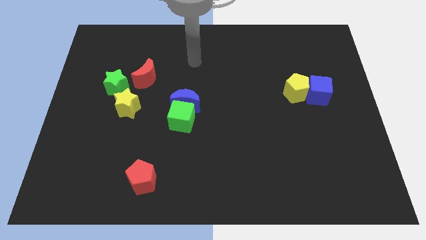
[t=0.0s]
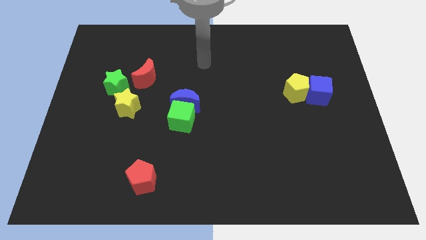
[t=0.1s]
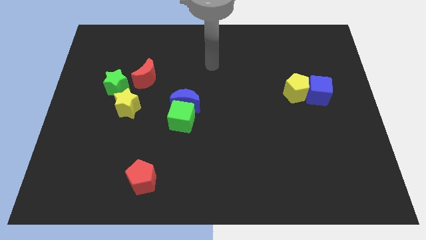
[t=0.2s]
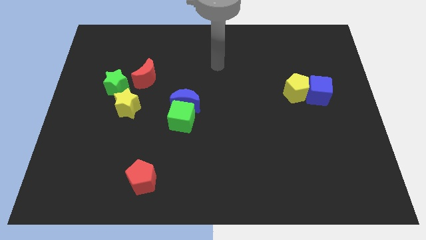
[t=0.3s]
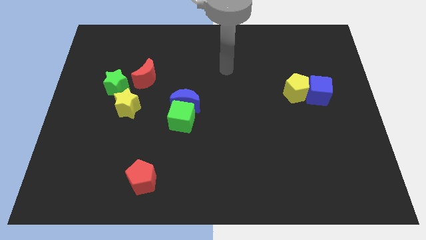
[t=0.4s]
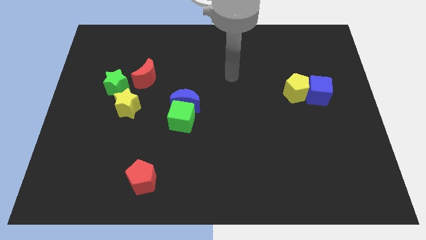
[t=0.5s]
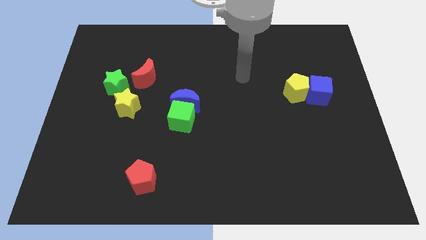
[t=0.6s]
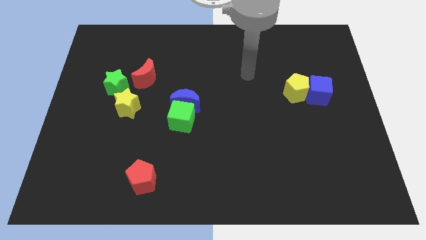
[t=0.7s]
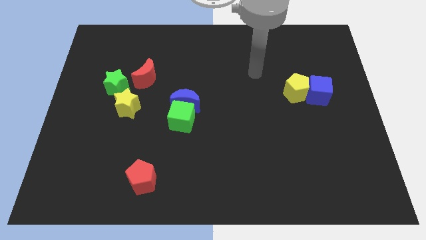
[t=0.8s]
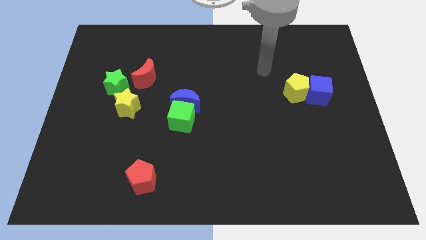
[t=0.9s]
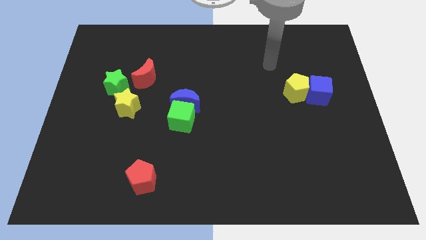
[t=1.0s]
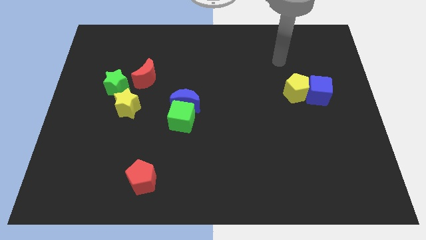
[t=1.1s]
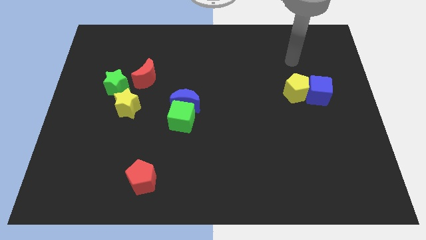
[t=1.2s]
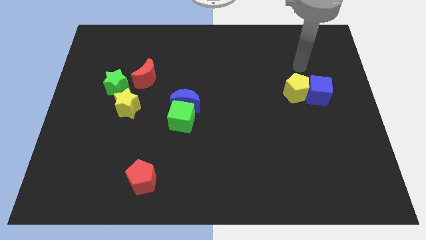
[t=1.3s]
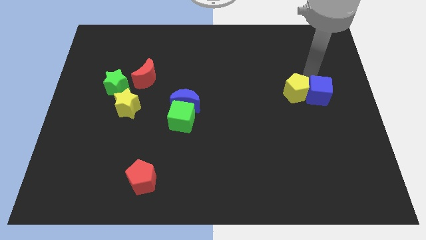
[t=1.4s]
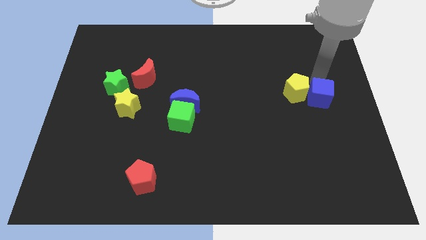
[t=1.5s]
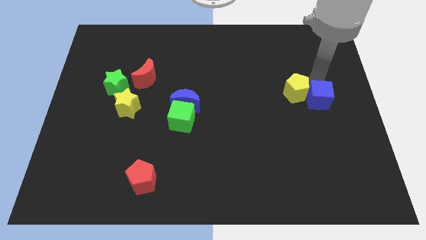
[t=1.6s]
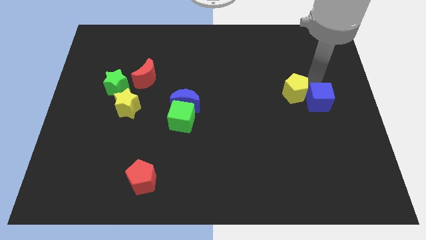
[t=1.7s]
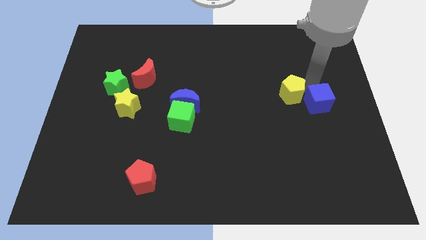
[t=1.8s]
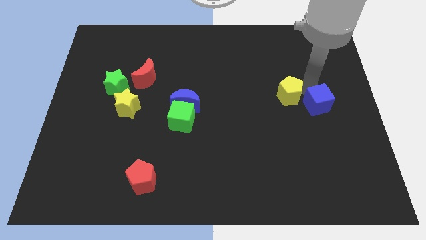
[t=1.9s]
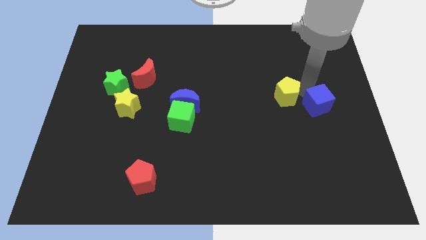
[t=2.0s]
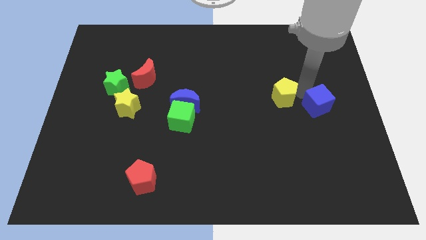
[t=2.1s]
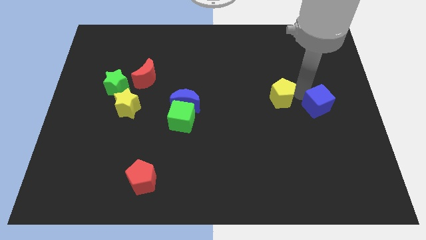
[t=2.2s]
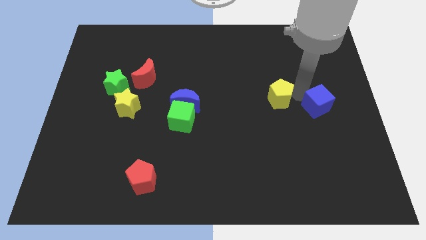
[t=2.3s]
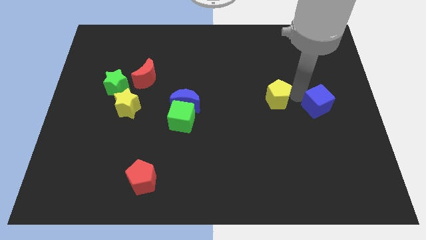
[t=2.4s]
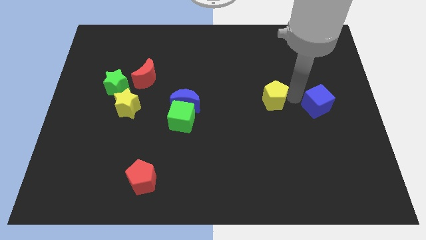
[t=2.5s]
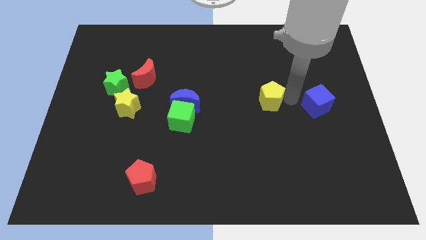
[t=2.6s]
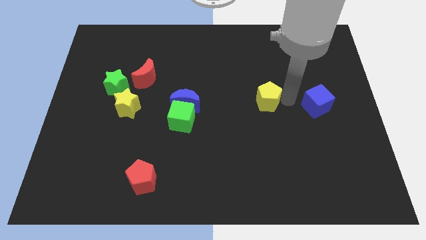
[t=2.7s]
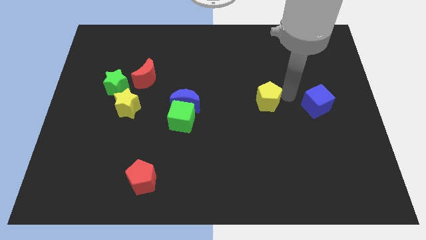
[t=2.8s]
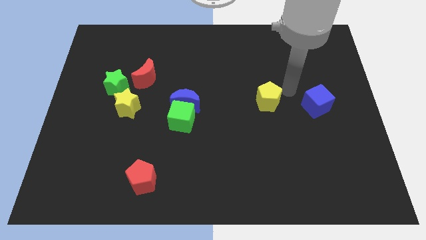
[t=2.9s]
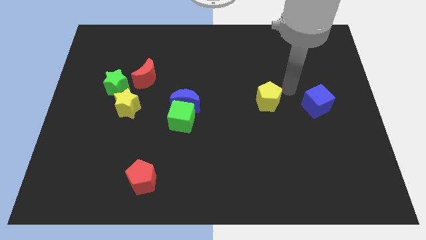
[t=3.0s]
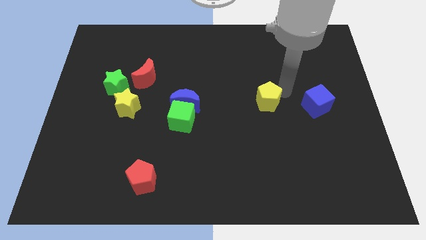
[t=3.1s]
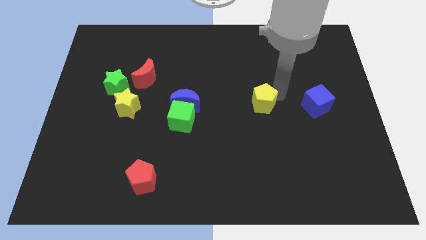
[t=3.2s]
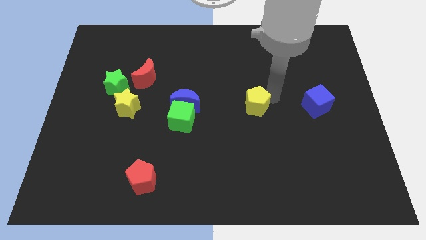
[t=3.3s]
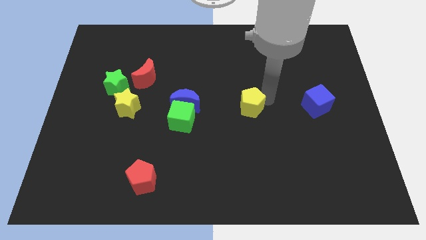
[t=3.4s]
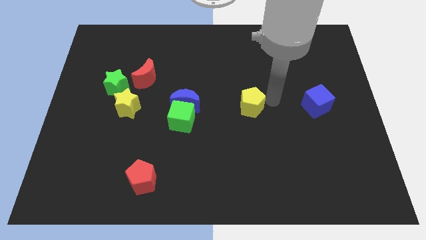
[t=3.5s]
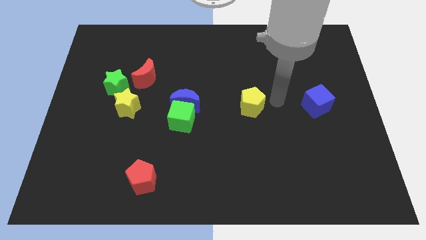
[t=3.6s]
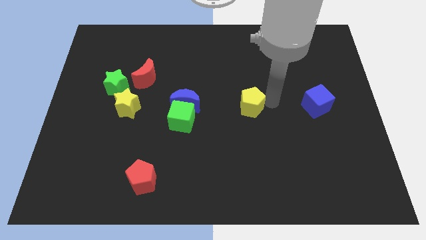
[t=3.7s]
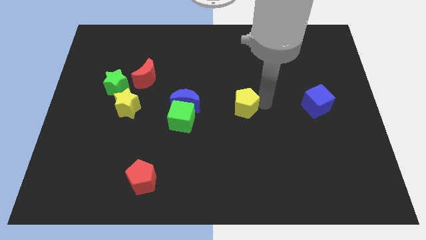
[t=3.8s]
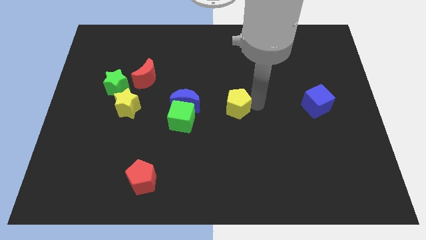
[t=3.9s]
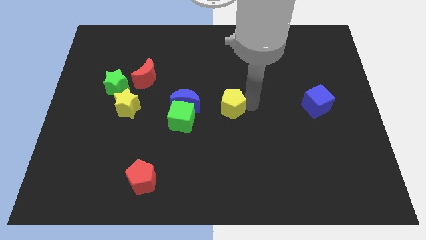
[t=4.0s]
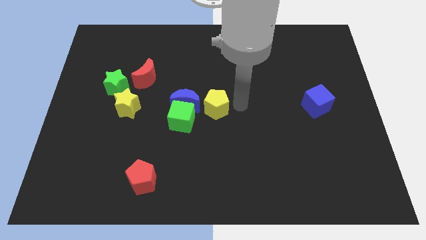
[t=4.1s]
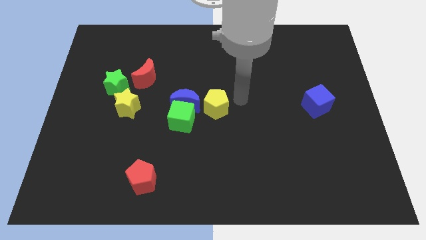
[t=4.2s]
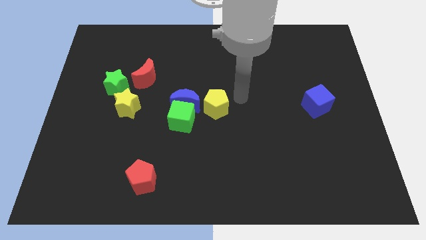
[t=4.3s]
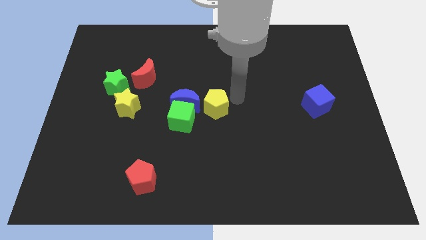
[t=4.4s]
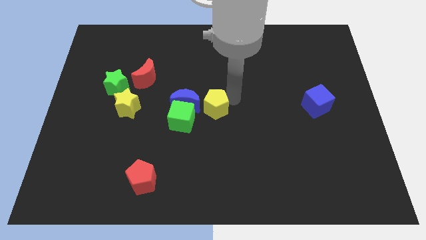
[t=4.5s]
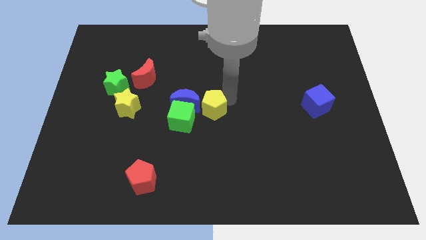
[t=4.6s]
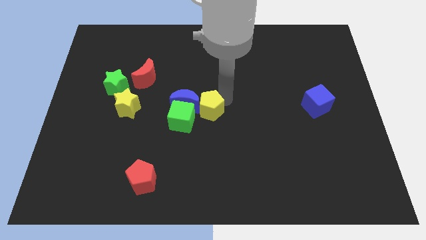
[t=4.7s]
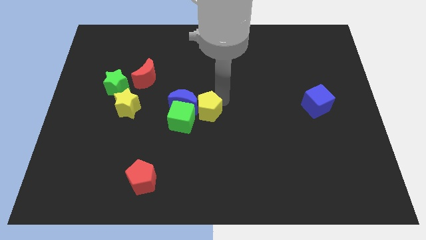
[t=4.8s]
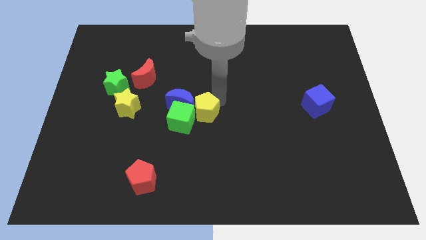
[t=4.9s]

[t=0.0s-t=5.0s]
push the yellow pentagon to the green cube

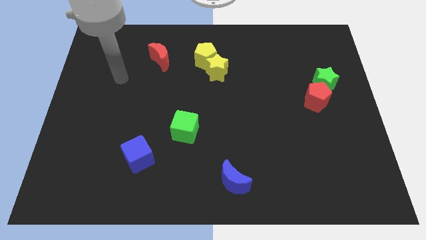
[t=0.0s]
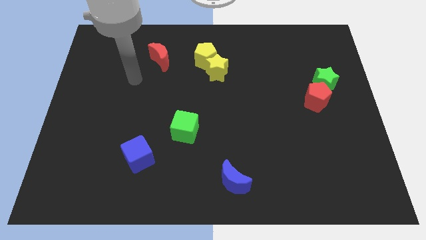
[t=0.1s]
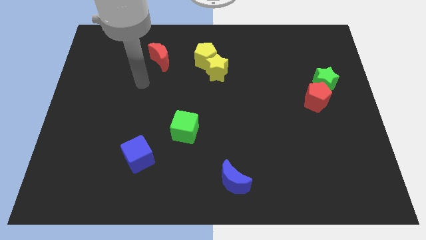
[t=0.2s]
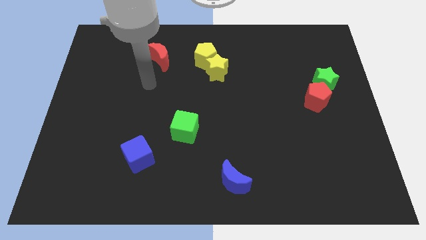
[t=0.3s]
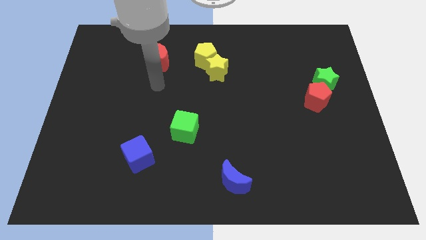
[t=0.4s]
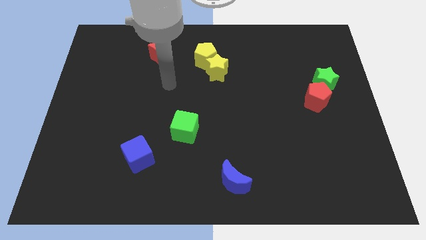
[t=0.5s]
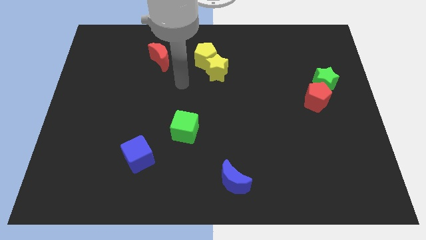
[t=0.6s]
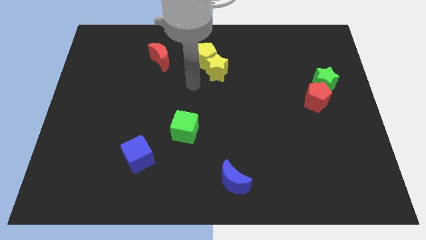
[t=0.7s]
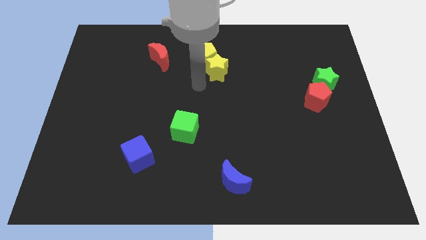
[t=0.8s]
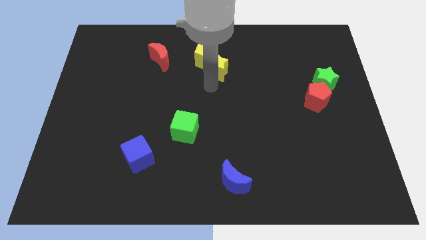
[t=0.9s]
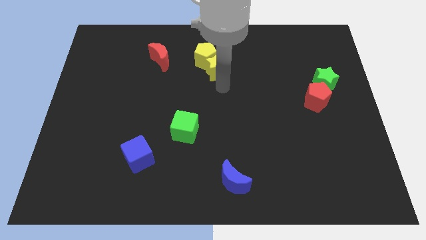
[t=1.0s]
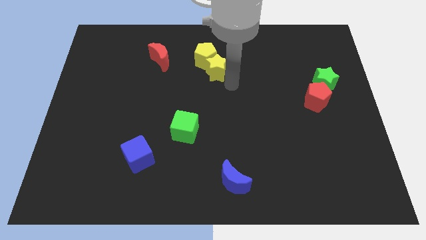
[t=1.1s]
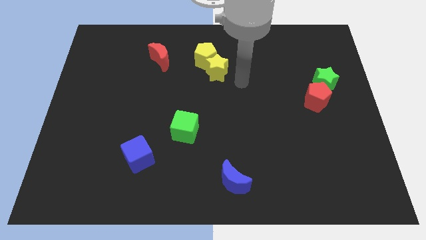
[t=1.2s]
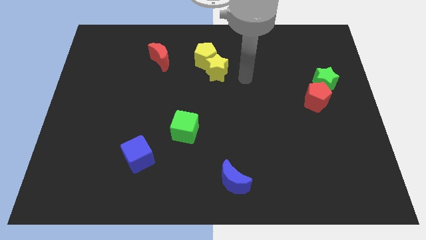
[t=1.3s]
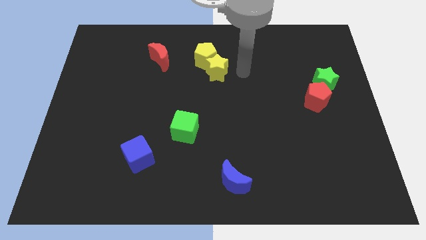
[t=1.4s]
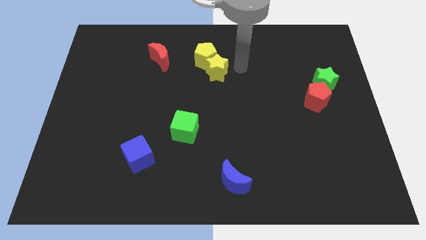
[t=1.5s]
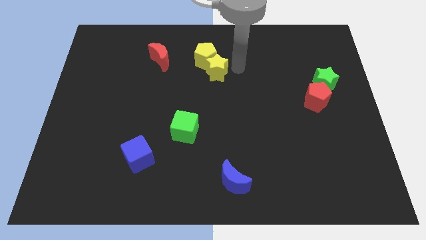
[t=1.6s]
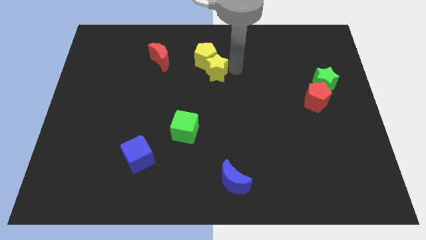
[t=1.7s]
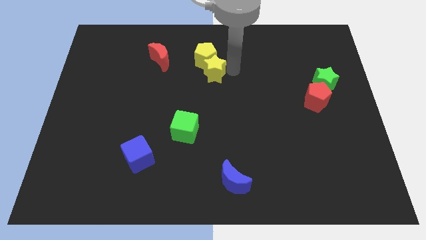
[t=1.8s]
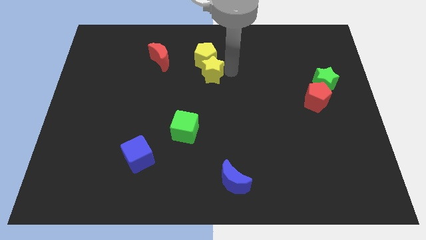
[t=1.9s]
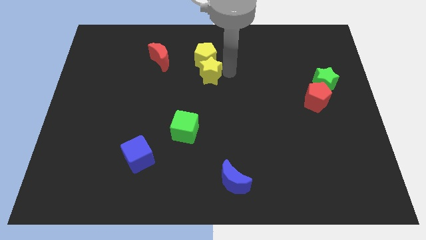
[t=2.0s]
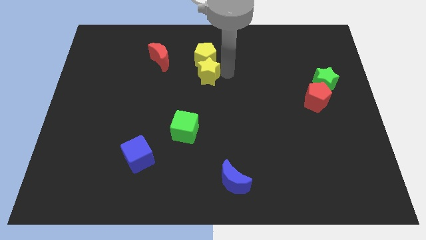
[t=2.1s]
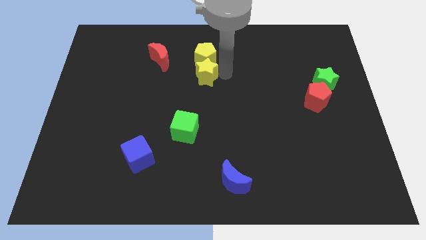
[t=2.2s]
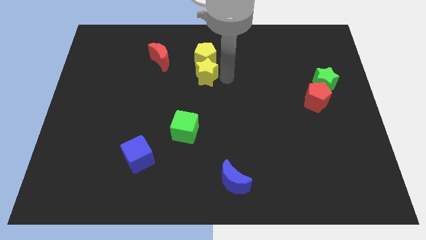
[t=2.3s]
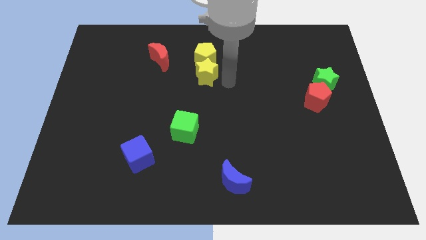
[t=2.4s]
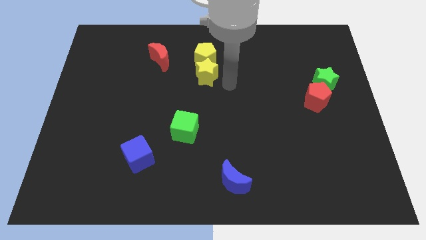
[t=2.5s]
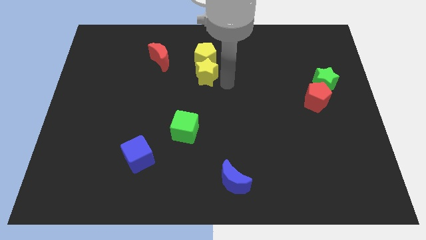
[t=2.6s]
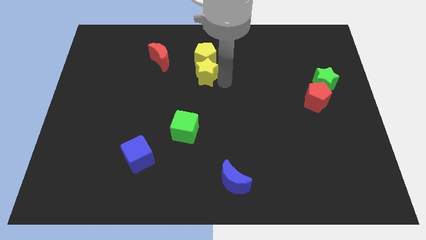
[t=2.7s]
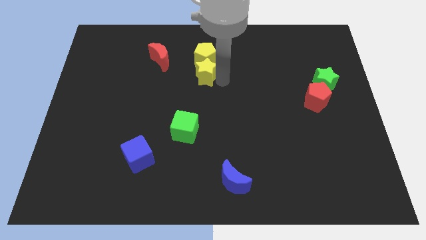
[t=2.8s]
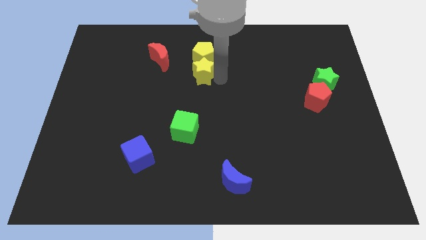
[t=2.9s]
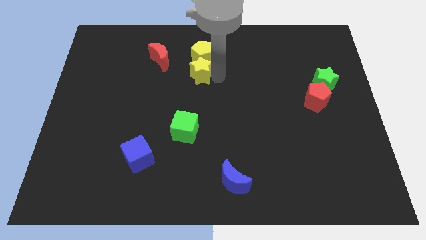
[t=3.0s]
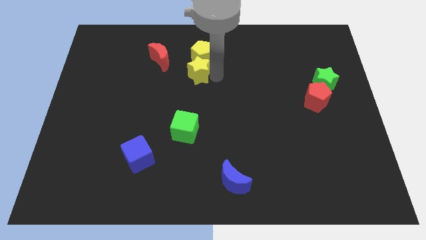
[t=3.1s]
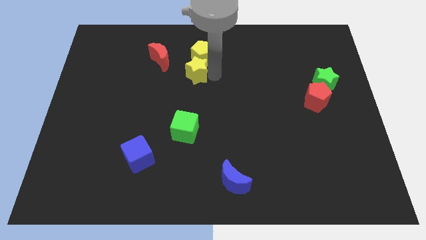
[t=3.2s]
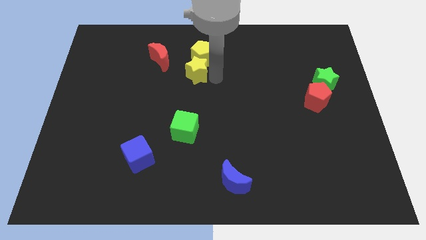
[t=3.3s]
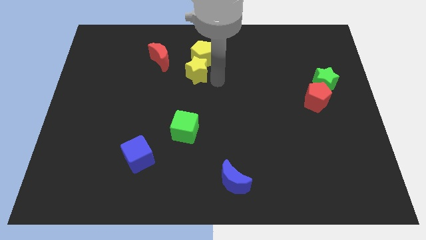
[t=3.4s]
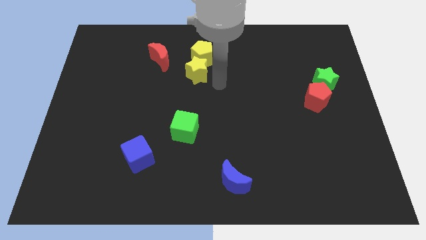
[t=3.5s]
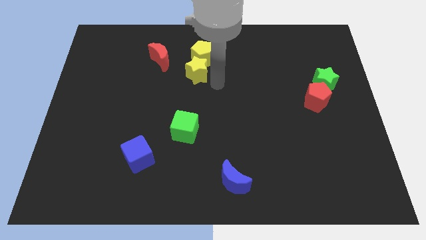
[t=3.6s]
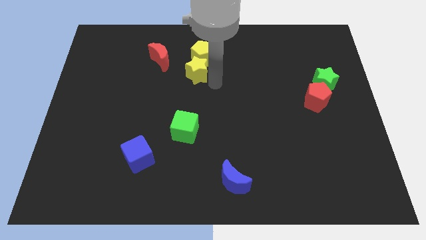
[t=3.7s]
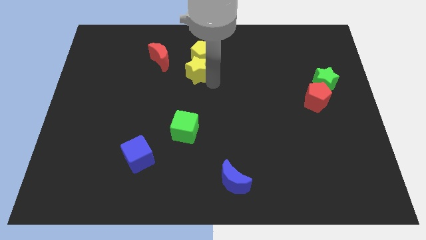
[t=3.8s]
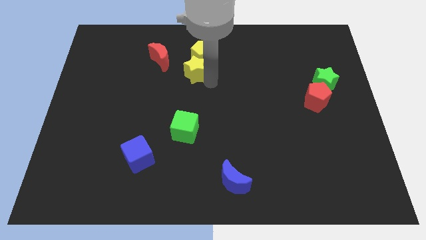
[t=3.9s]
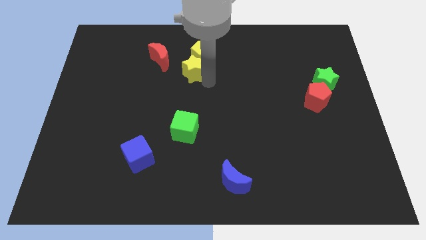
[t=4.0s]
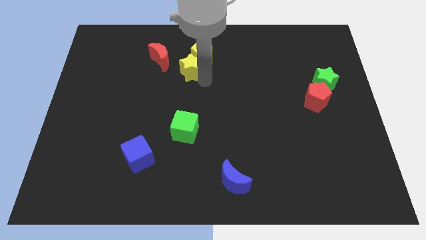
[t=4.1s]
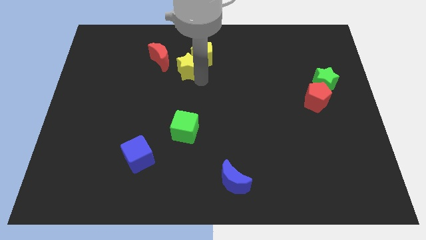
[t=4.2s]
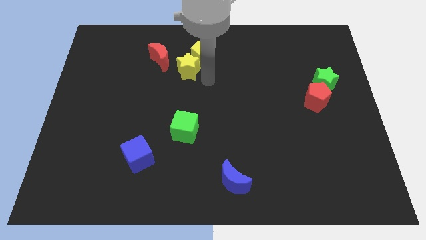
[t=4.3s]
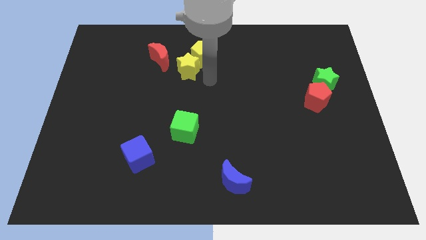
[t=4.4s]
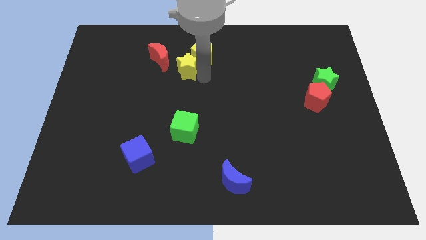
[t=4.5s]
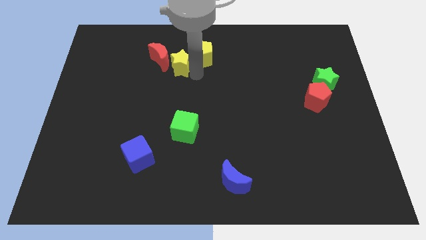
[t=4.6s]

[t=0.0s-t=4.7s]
slide the yellow star towards the red moon
